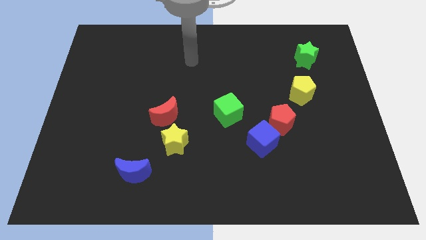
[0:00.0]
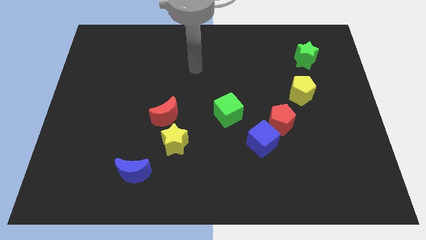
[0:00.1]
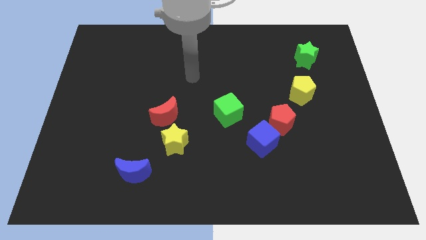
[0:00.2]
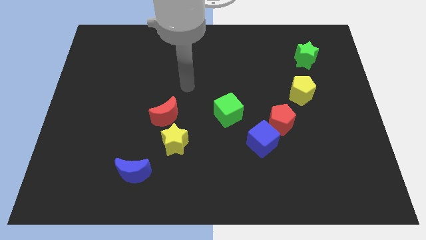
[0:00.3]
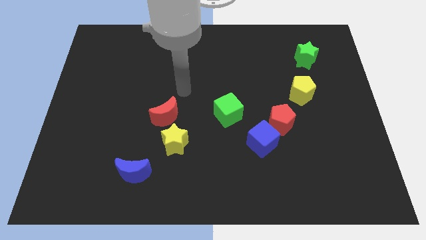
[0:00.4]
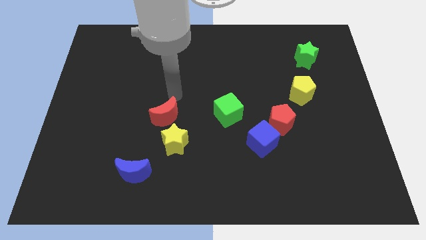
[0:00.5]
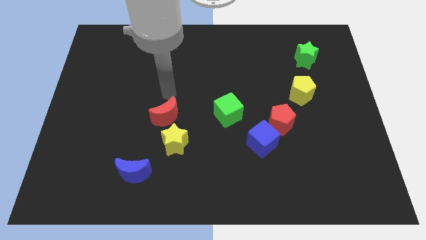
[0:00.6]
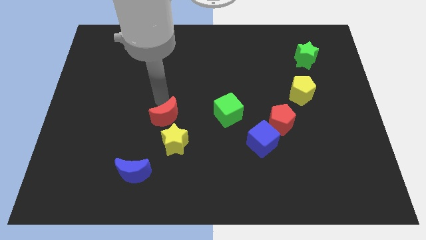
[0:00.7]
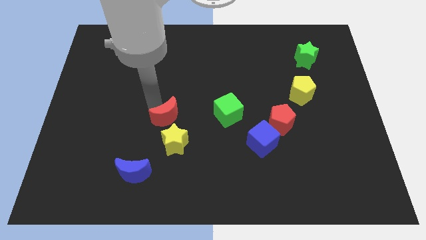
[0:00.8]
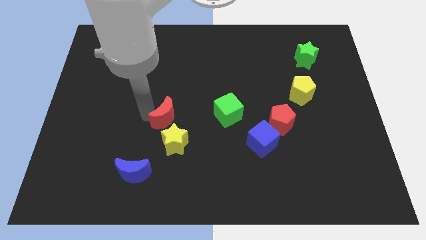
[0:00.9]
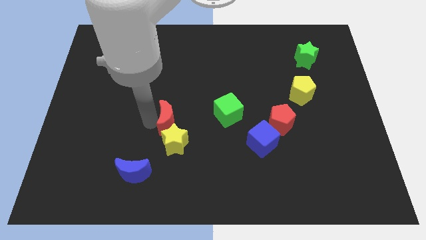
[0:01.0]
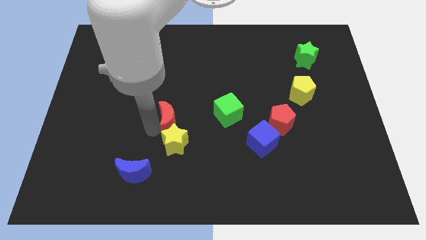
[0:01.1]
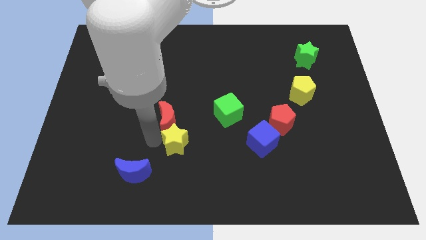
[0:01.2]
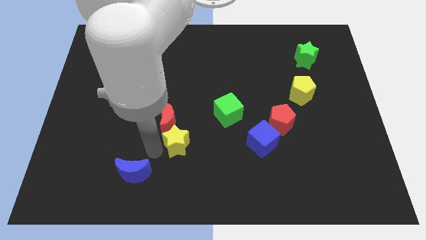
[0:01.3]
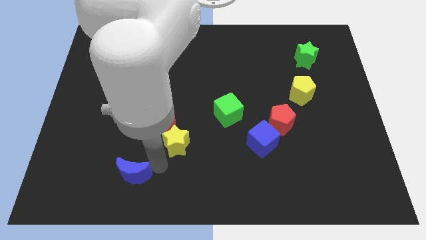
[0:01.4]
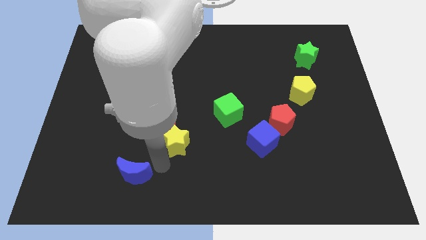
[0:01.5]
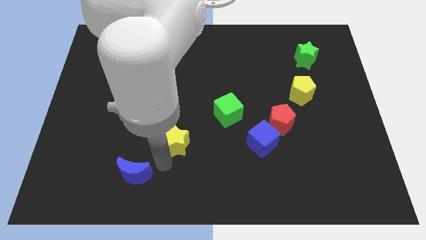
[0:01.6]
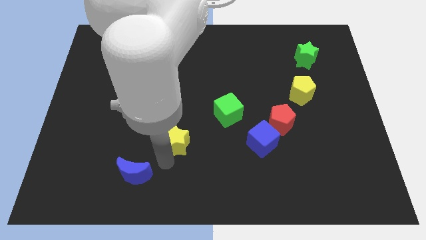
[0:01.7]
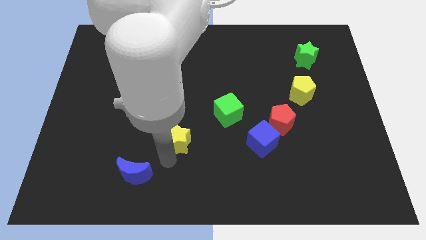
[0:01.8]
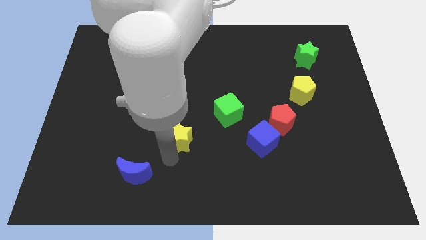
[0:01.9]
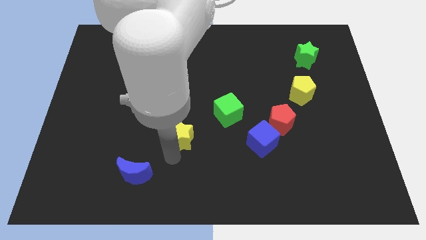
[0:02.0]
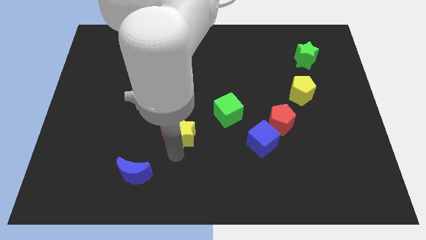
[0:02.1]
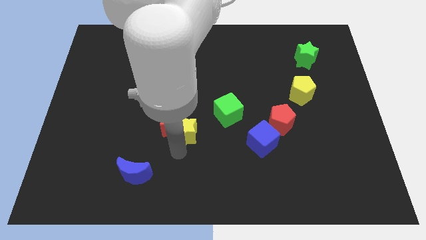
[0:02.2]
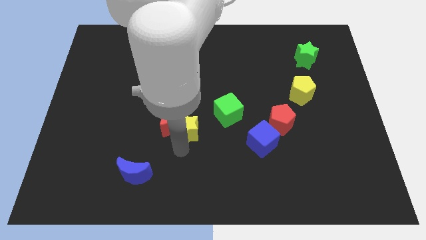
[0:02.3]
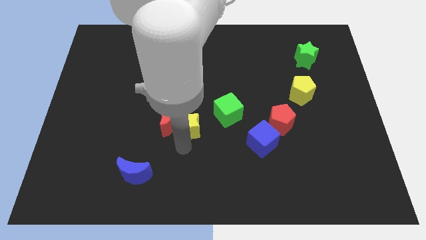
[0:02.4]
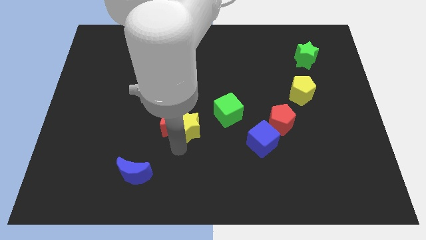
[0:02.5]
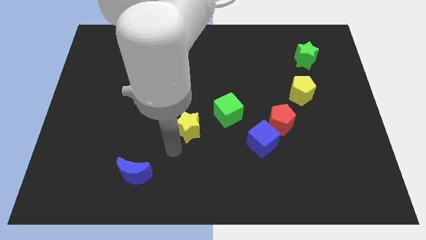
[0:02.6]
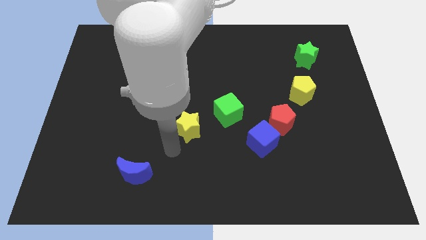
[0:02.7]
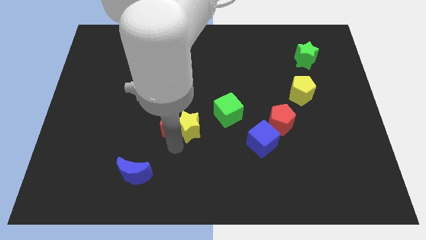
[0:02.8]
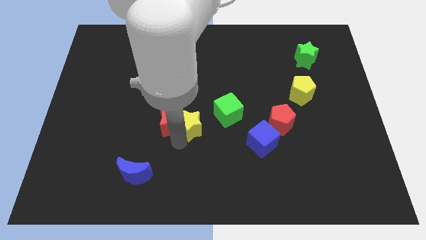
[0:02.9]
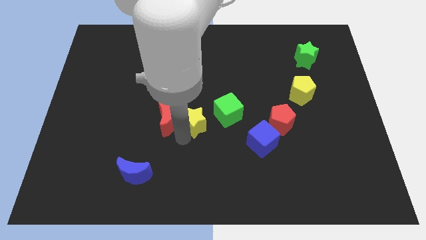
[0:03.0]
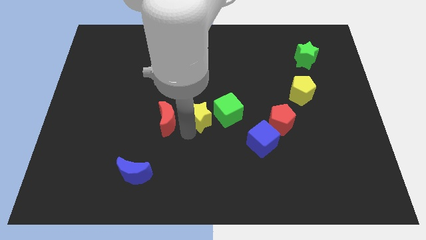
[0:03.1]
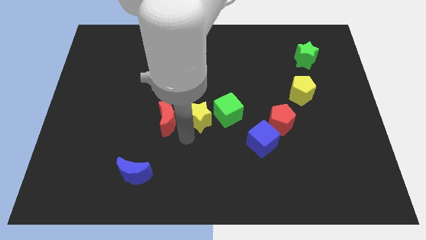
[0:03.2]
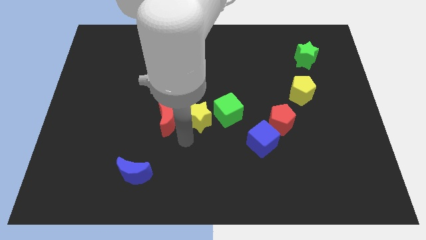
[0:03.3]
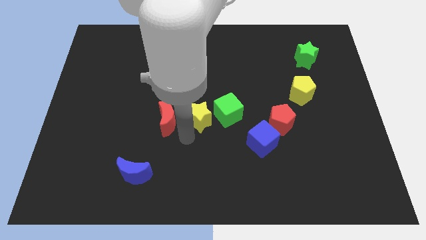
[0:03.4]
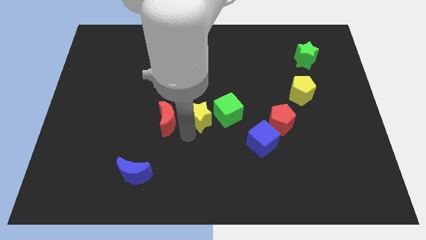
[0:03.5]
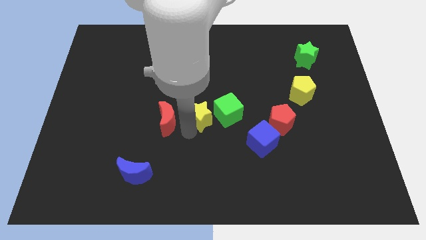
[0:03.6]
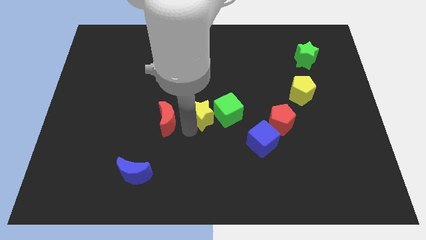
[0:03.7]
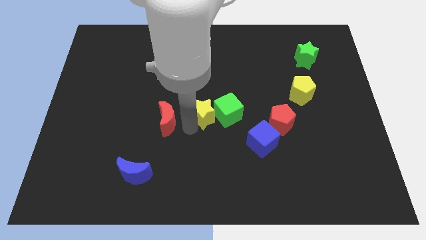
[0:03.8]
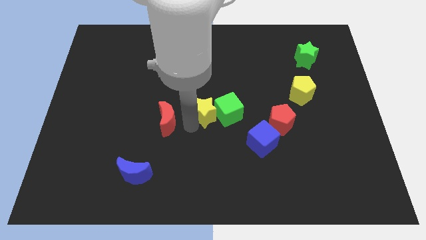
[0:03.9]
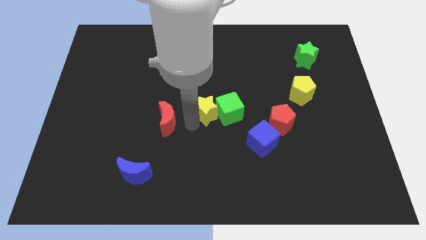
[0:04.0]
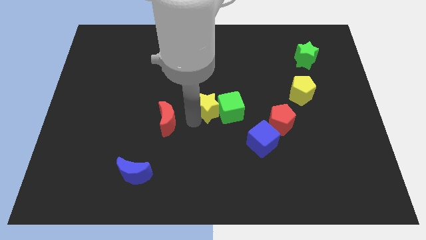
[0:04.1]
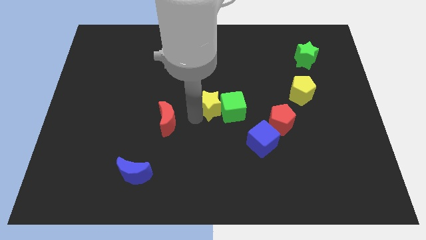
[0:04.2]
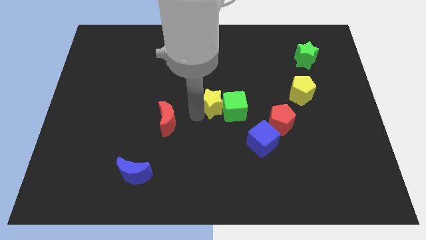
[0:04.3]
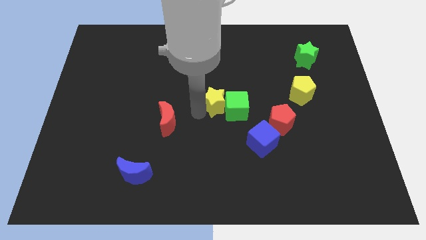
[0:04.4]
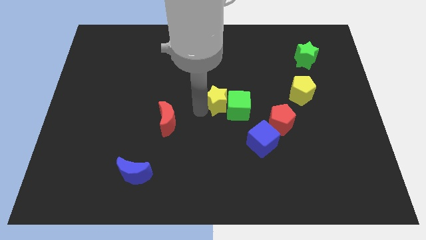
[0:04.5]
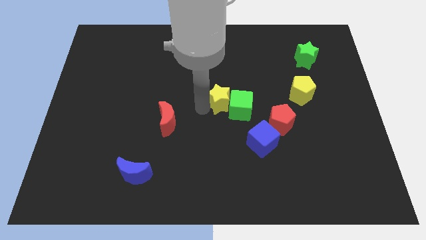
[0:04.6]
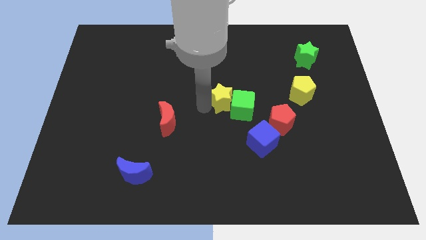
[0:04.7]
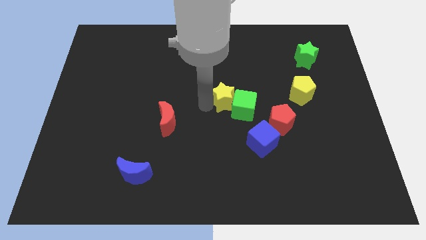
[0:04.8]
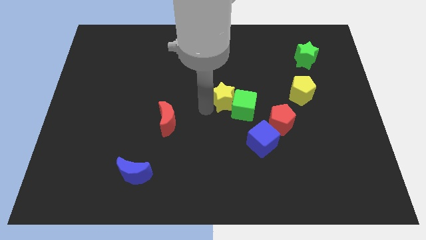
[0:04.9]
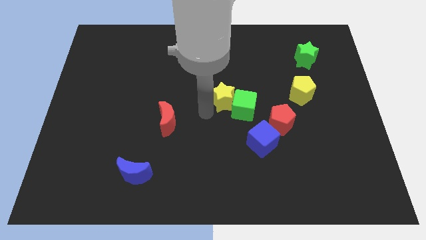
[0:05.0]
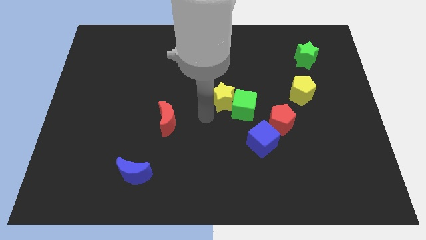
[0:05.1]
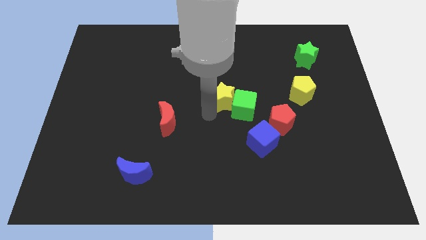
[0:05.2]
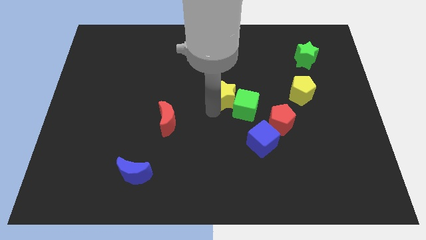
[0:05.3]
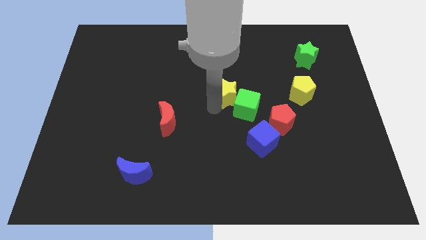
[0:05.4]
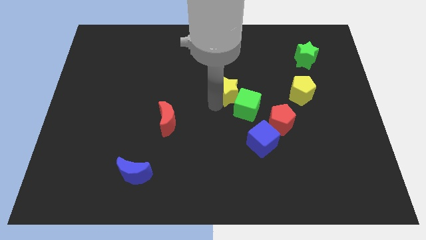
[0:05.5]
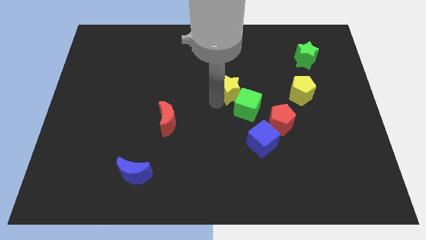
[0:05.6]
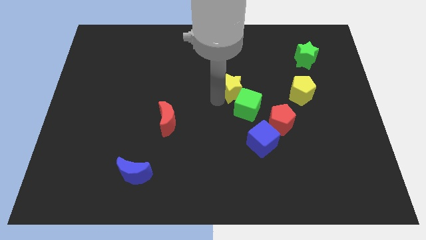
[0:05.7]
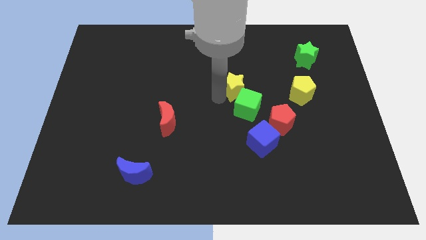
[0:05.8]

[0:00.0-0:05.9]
move the yellow star diagonally upwards and to the right

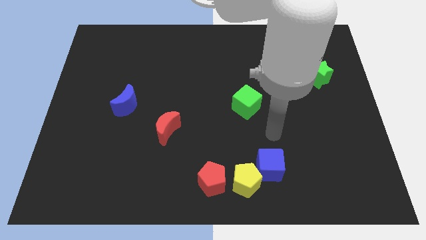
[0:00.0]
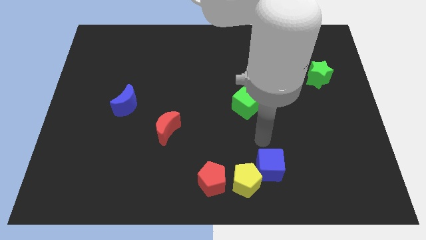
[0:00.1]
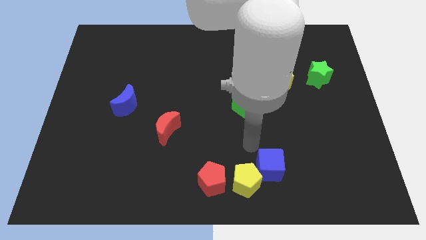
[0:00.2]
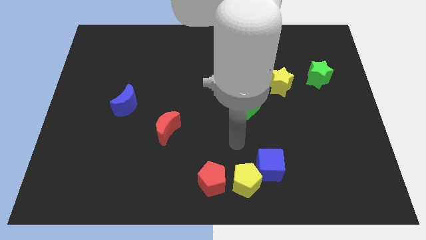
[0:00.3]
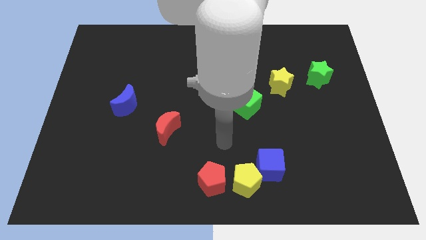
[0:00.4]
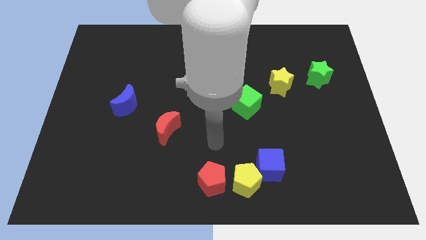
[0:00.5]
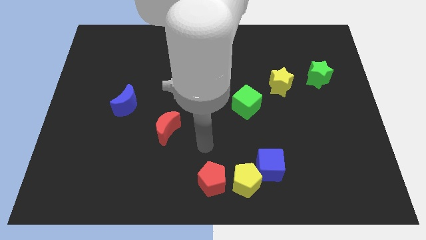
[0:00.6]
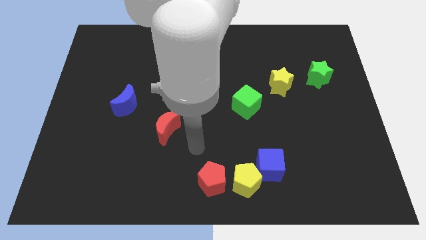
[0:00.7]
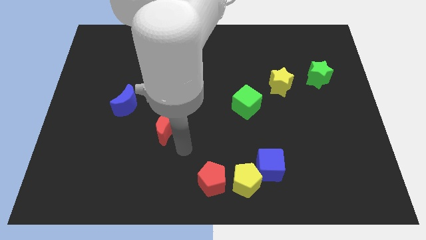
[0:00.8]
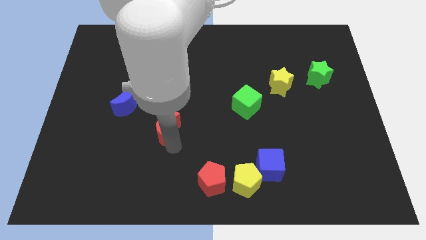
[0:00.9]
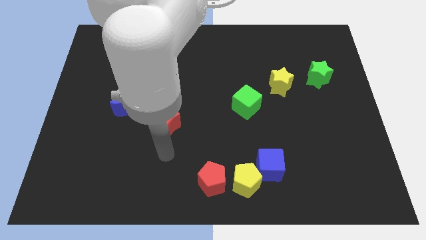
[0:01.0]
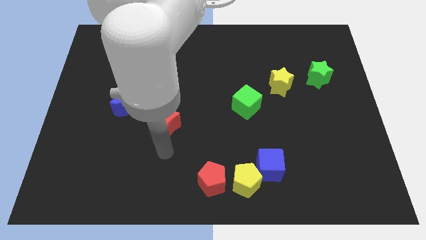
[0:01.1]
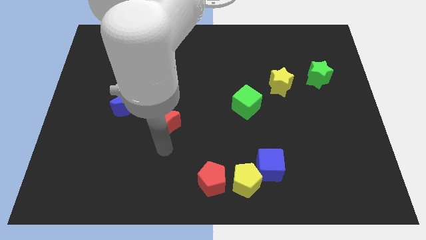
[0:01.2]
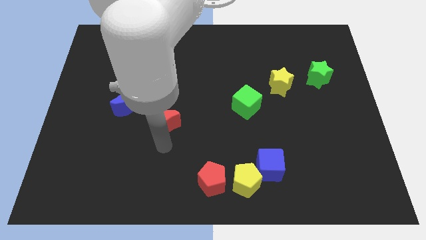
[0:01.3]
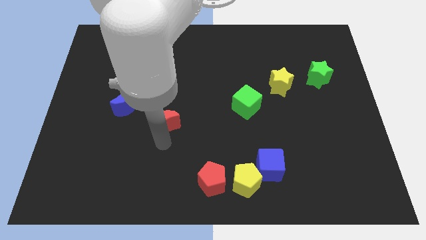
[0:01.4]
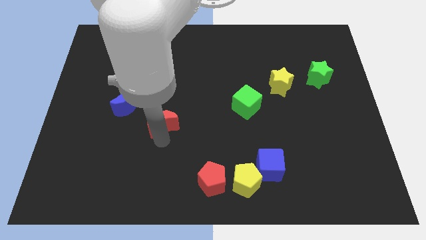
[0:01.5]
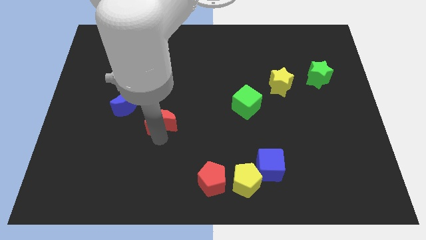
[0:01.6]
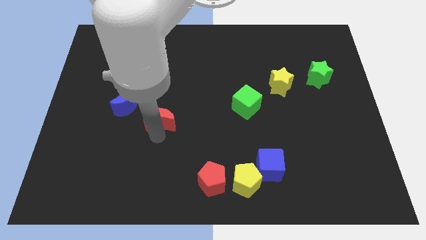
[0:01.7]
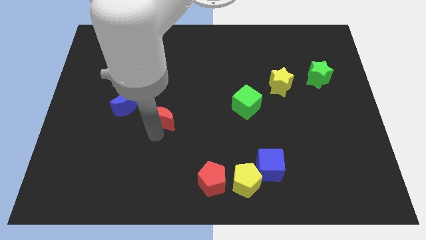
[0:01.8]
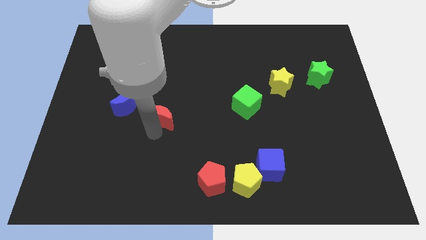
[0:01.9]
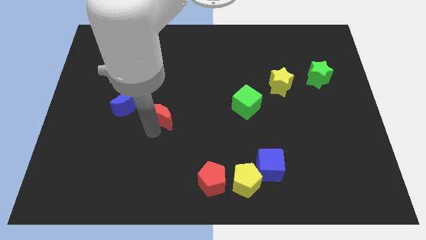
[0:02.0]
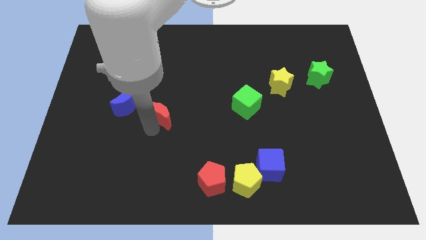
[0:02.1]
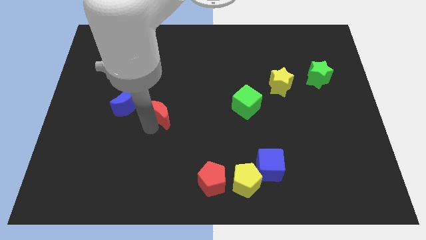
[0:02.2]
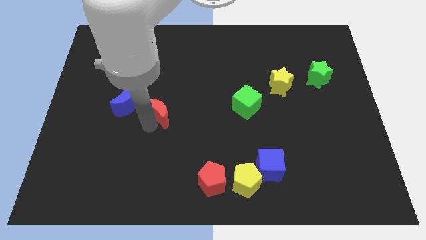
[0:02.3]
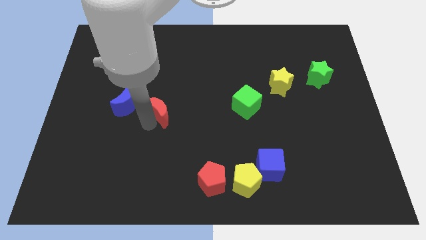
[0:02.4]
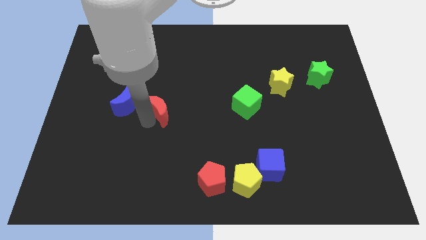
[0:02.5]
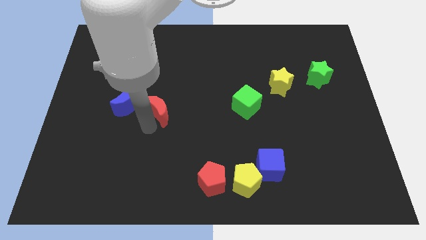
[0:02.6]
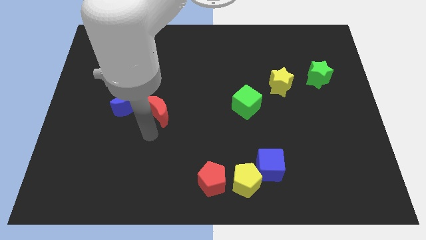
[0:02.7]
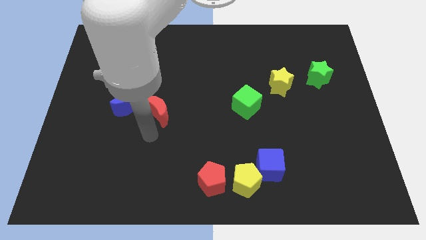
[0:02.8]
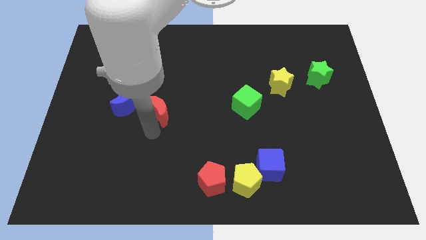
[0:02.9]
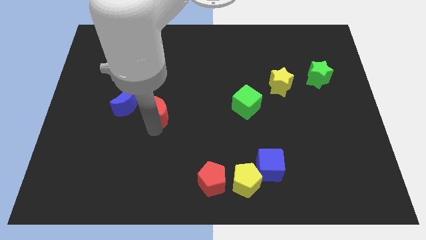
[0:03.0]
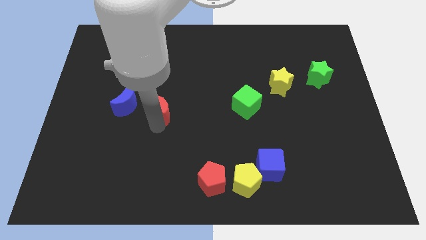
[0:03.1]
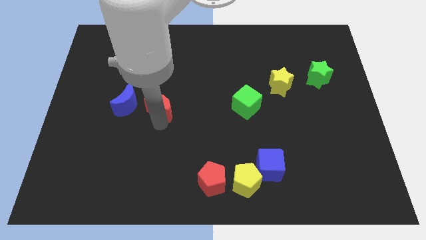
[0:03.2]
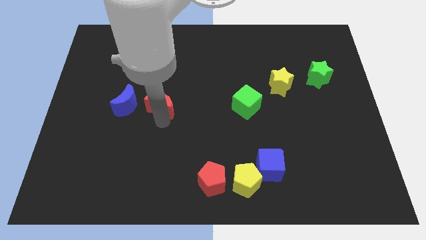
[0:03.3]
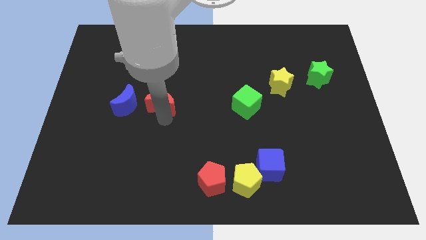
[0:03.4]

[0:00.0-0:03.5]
push the red moon upwards a bit
